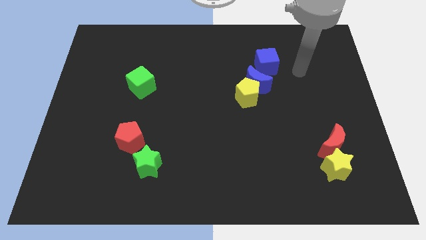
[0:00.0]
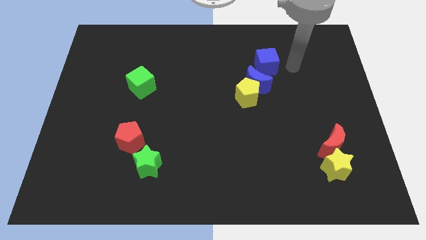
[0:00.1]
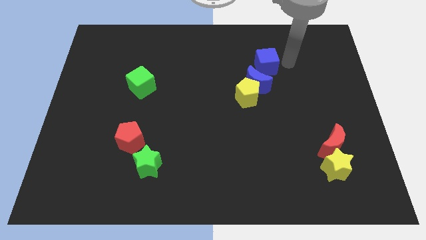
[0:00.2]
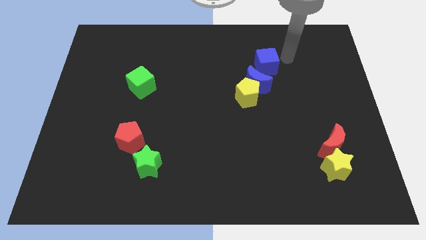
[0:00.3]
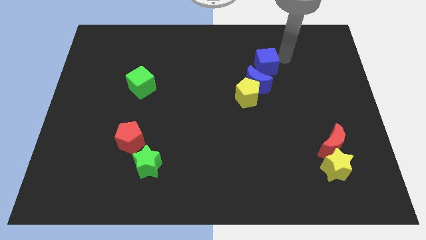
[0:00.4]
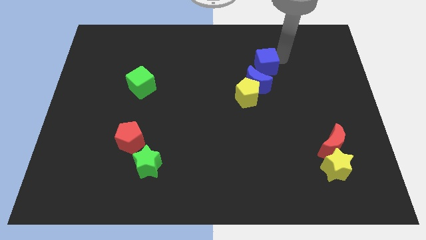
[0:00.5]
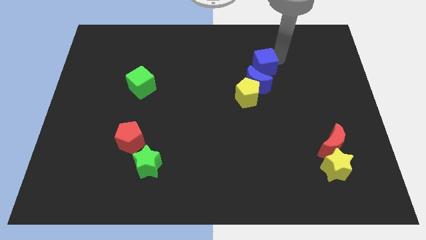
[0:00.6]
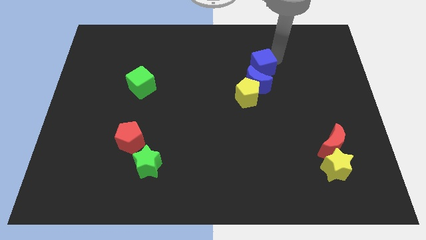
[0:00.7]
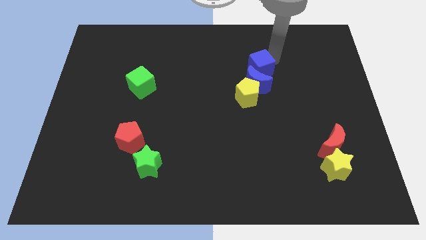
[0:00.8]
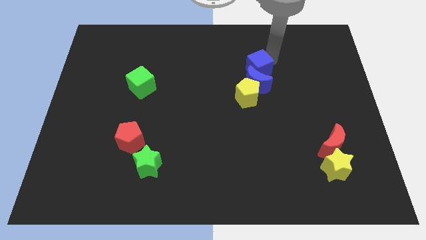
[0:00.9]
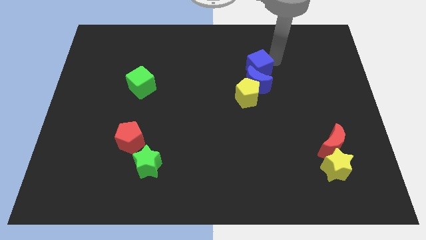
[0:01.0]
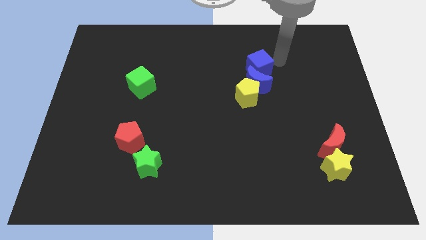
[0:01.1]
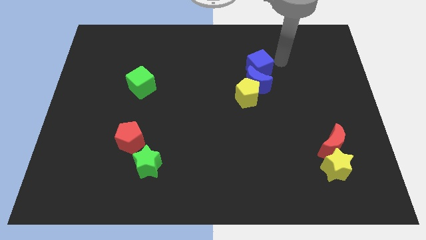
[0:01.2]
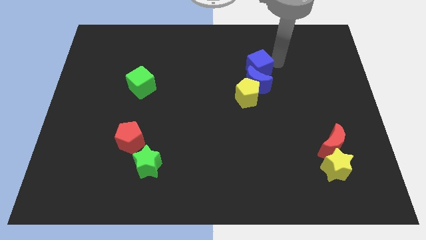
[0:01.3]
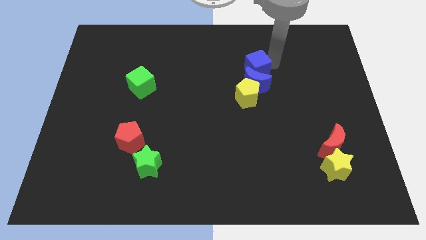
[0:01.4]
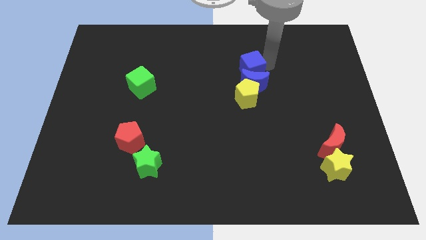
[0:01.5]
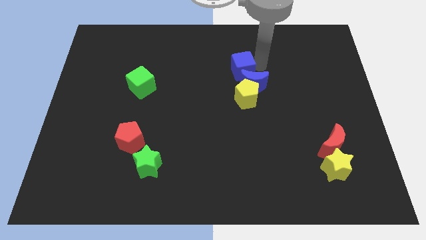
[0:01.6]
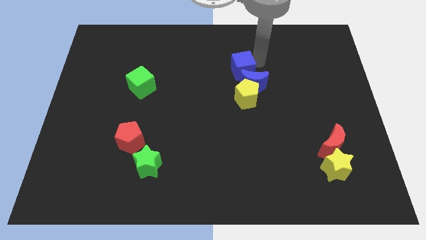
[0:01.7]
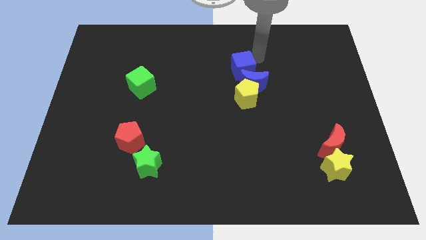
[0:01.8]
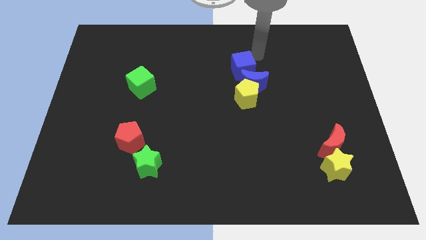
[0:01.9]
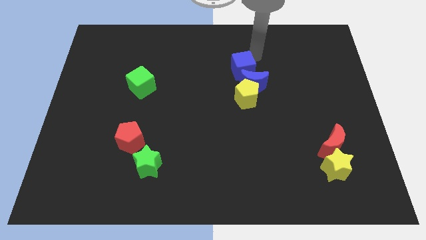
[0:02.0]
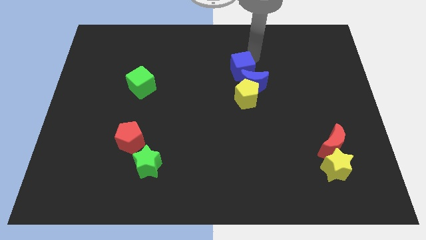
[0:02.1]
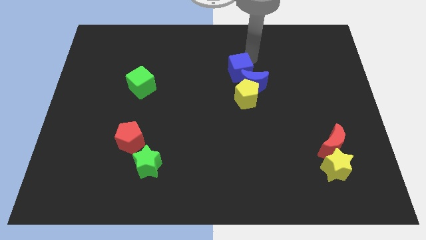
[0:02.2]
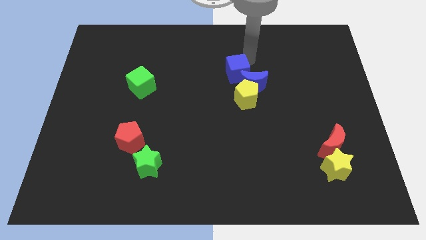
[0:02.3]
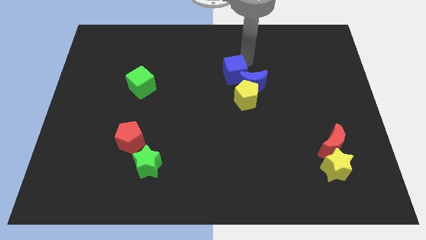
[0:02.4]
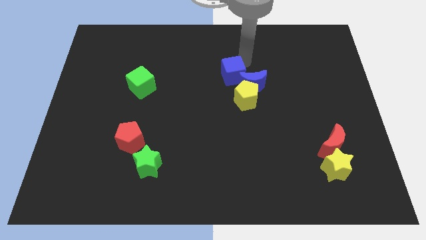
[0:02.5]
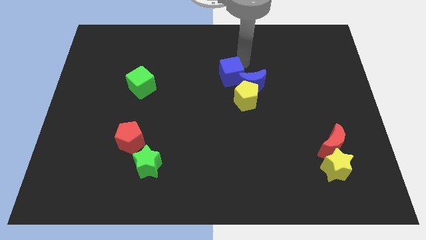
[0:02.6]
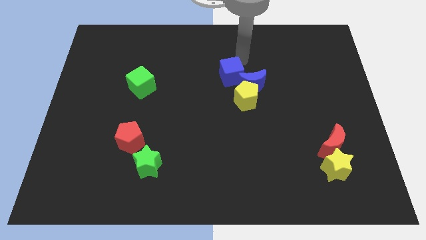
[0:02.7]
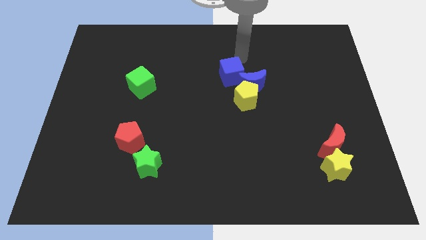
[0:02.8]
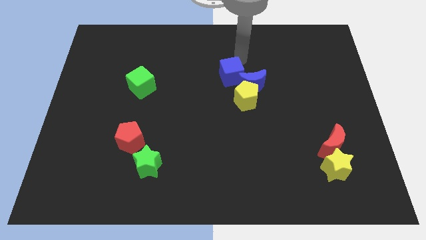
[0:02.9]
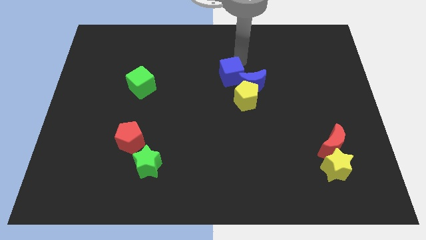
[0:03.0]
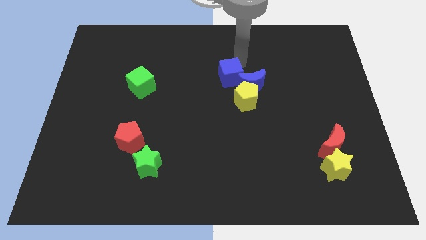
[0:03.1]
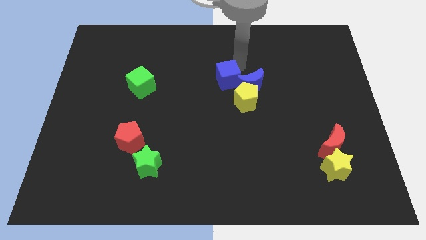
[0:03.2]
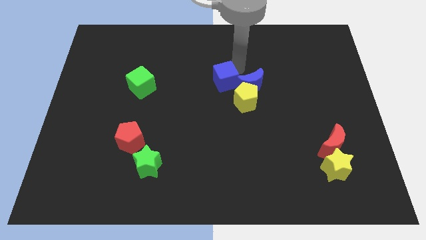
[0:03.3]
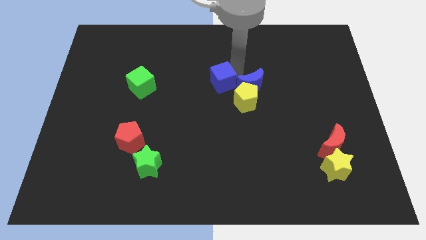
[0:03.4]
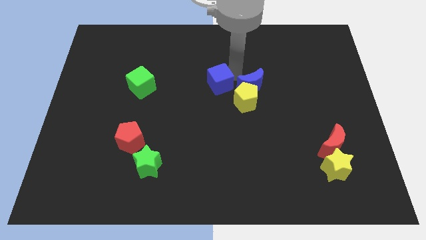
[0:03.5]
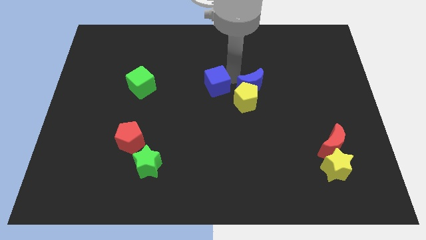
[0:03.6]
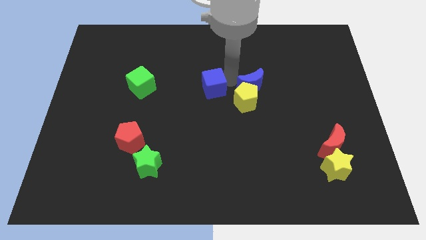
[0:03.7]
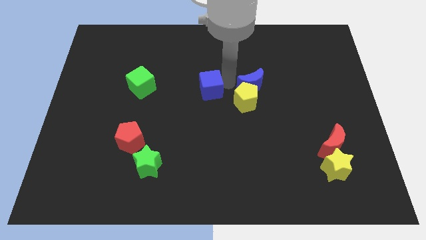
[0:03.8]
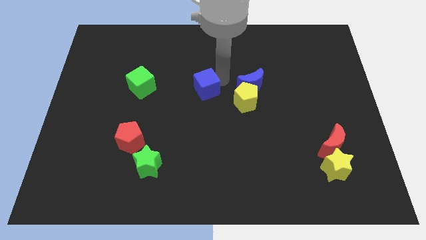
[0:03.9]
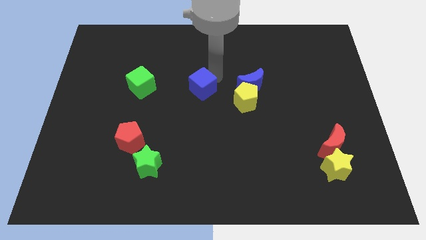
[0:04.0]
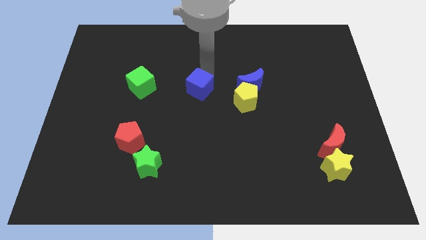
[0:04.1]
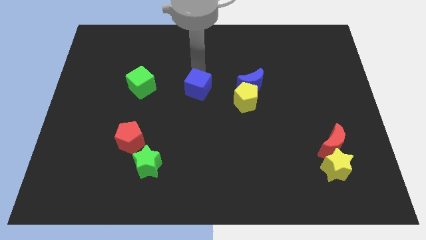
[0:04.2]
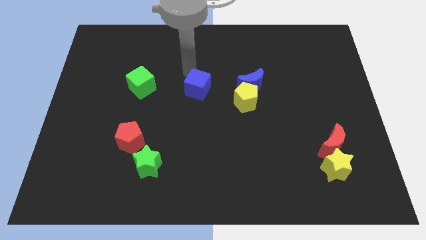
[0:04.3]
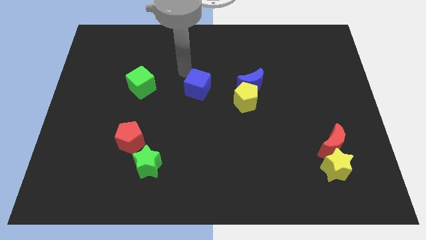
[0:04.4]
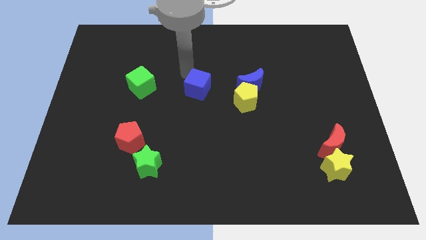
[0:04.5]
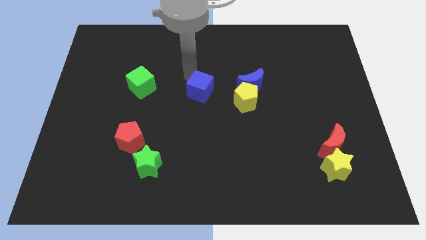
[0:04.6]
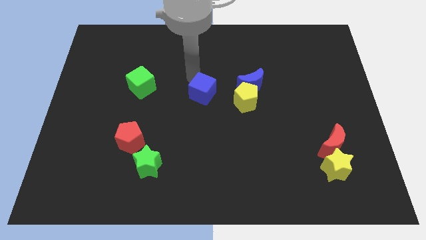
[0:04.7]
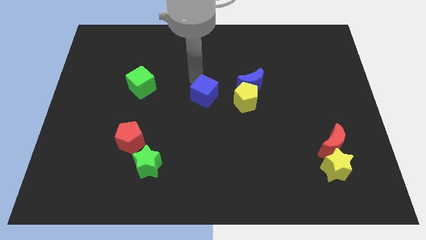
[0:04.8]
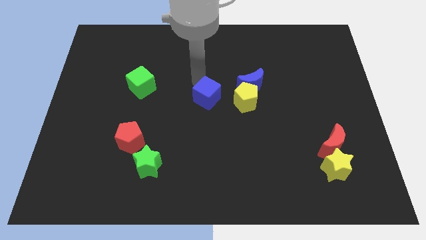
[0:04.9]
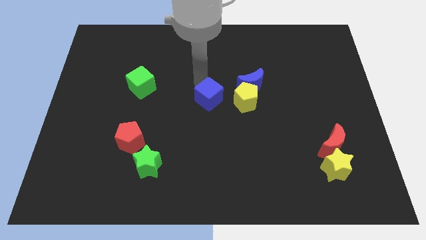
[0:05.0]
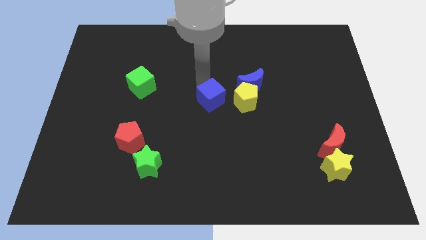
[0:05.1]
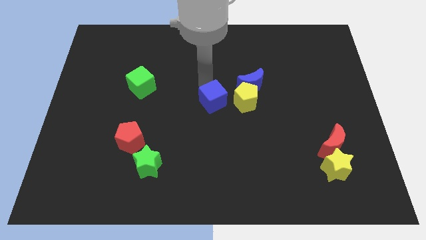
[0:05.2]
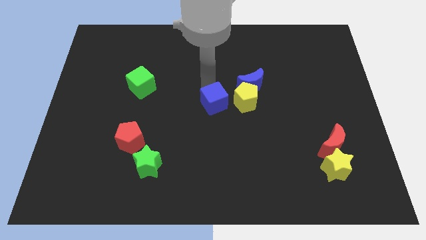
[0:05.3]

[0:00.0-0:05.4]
move the blue cube diagonally down and to the left of the yellow pentagon
